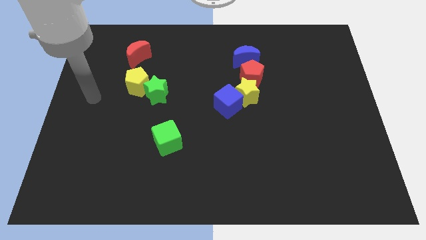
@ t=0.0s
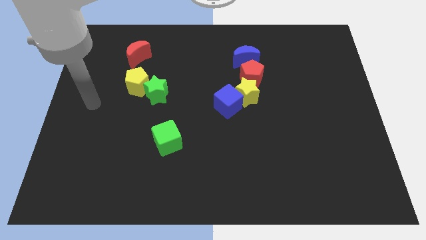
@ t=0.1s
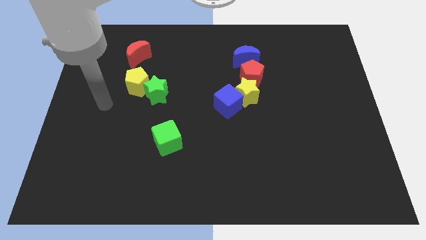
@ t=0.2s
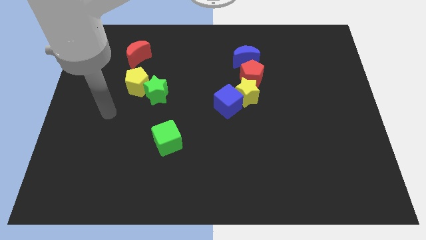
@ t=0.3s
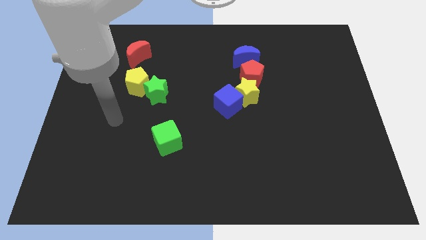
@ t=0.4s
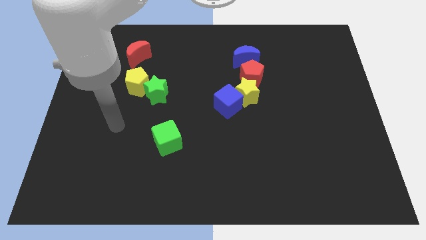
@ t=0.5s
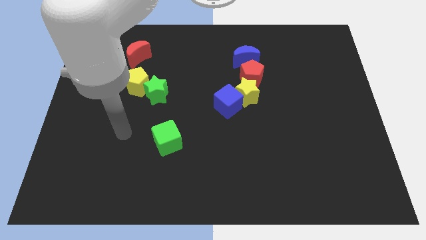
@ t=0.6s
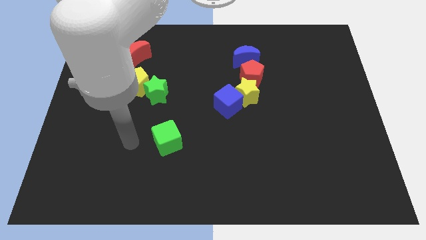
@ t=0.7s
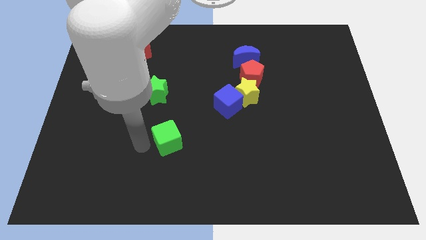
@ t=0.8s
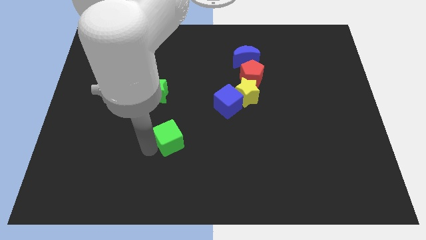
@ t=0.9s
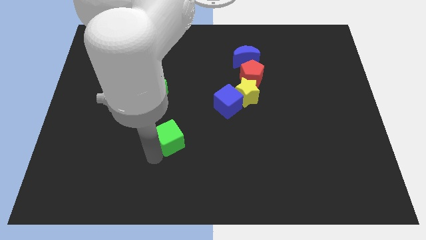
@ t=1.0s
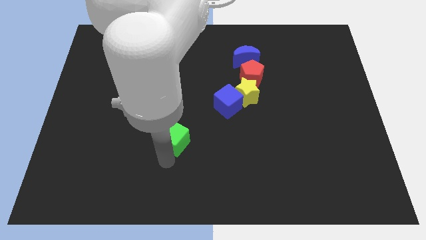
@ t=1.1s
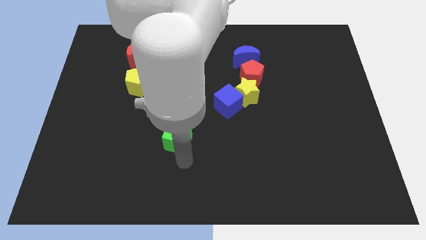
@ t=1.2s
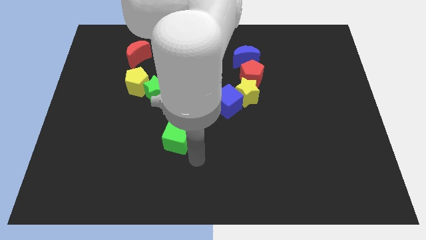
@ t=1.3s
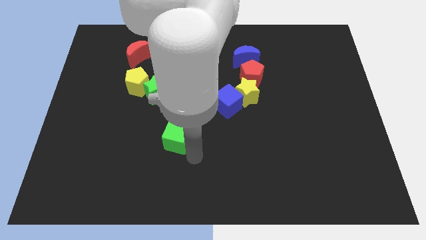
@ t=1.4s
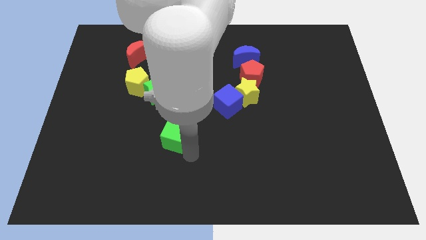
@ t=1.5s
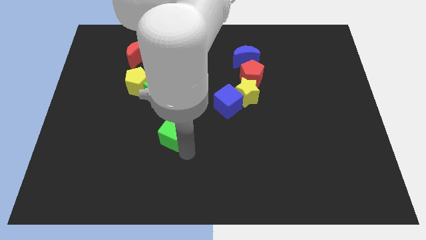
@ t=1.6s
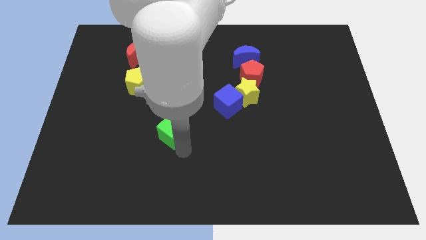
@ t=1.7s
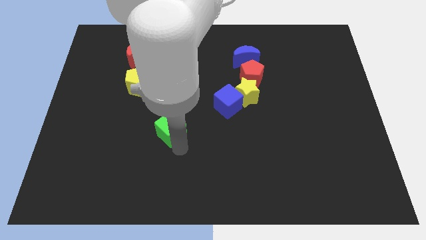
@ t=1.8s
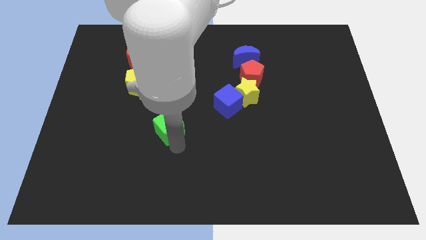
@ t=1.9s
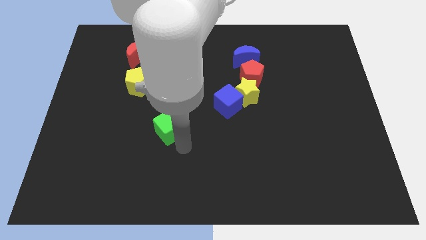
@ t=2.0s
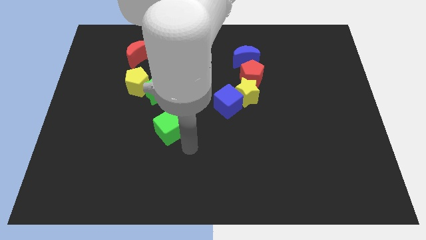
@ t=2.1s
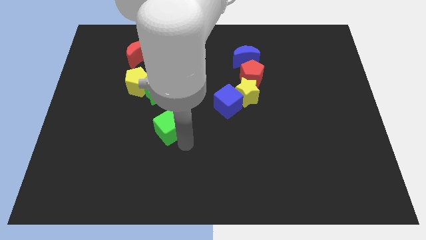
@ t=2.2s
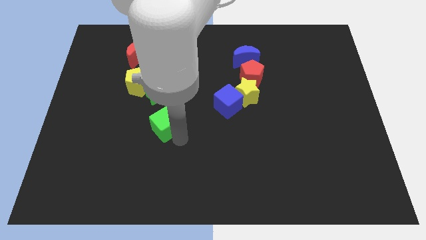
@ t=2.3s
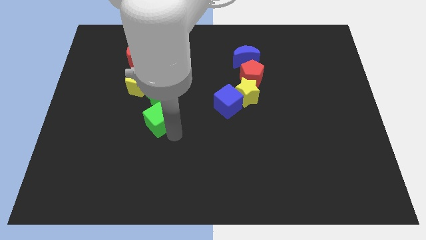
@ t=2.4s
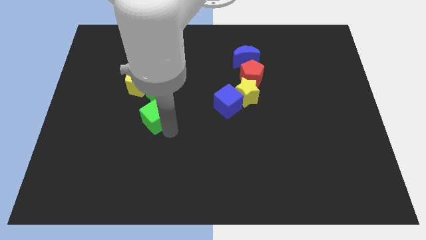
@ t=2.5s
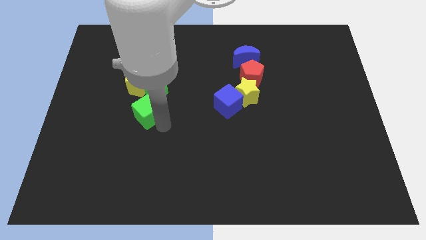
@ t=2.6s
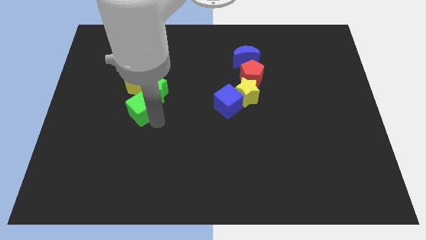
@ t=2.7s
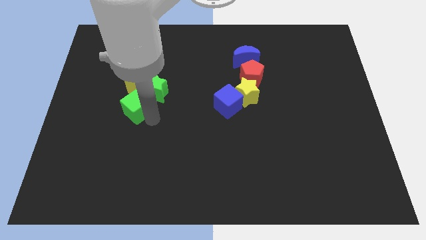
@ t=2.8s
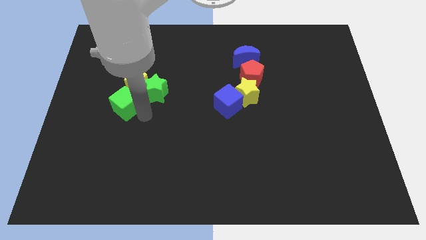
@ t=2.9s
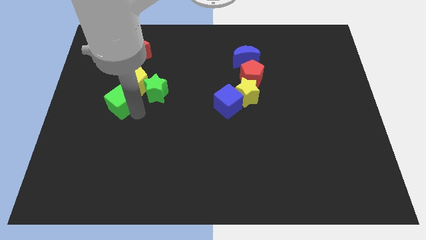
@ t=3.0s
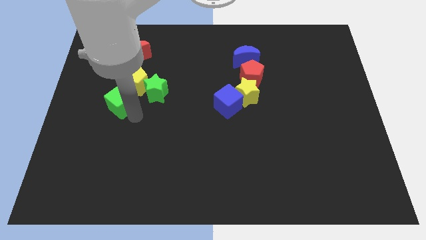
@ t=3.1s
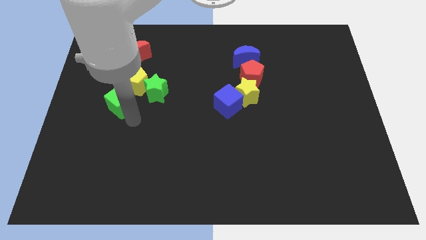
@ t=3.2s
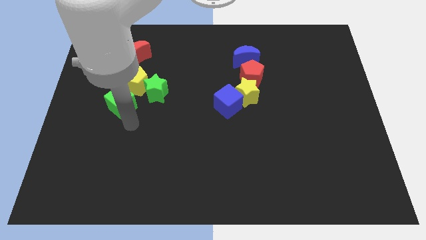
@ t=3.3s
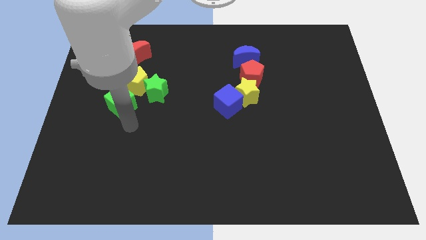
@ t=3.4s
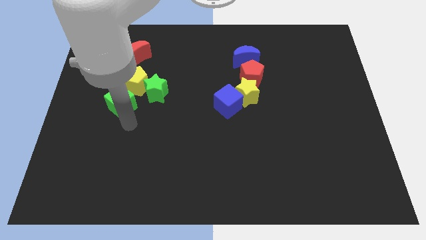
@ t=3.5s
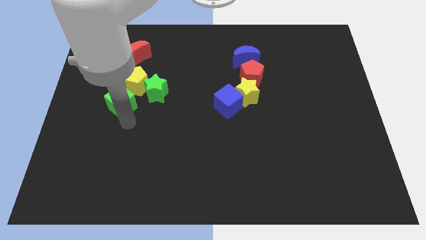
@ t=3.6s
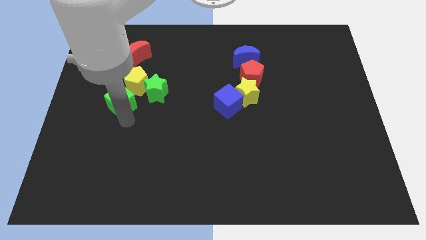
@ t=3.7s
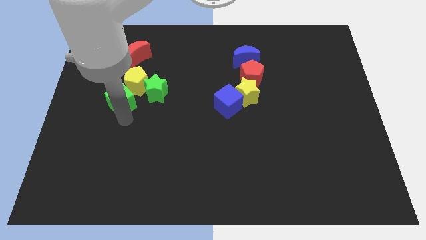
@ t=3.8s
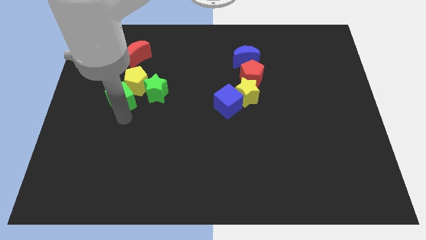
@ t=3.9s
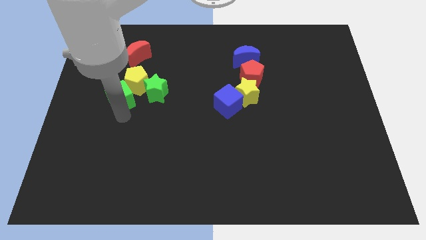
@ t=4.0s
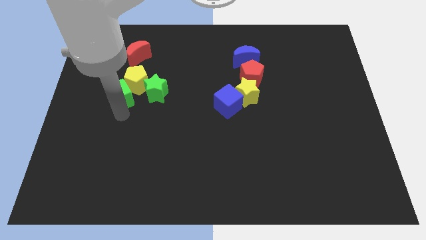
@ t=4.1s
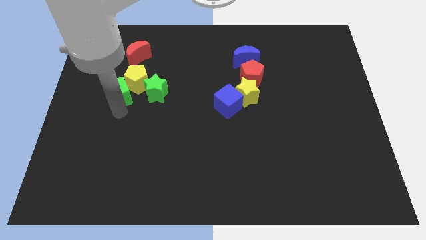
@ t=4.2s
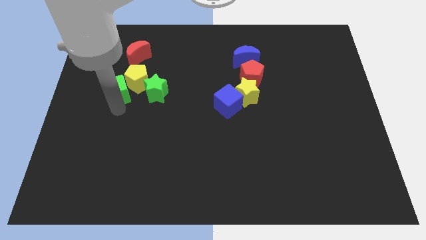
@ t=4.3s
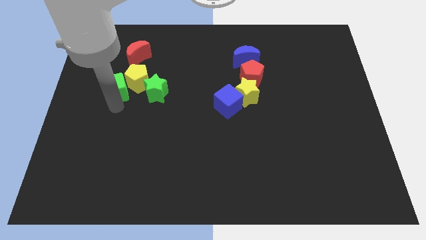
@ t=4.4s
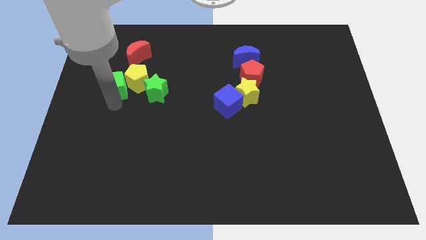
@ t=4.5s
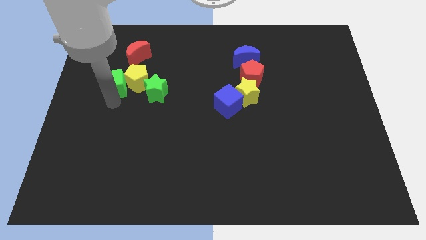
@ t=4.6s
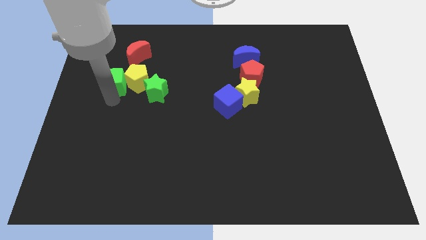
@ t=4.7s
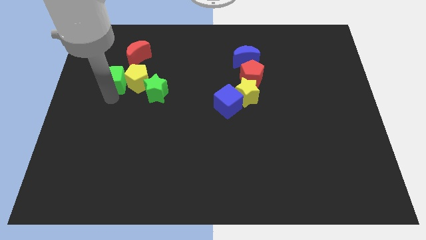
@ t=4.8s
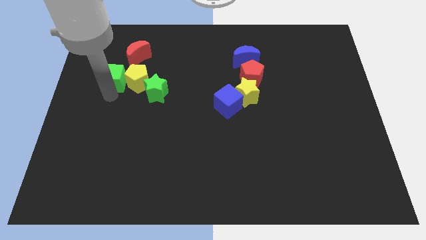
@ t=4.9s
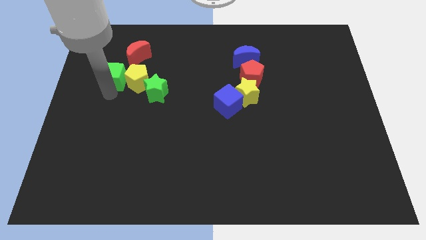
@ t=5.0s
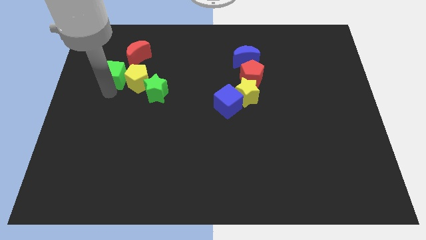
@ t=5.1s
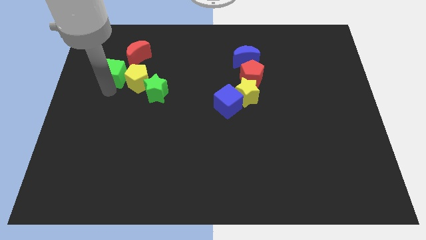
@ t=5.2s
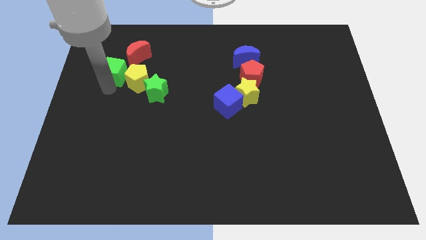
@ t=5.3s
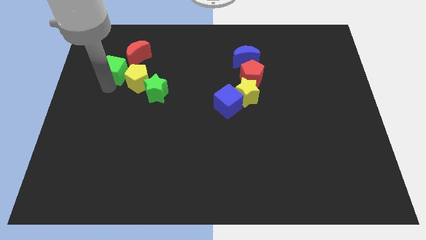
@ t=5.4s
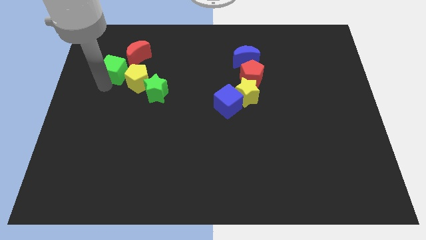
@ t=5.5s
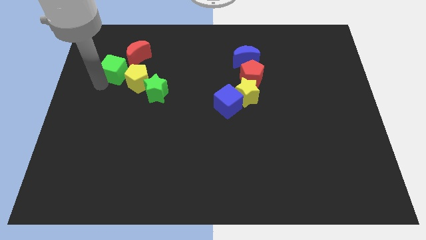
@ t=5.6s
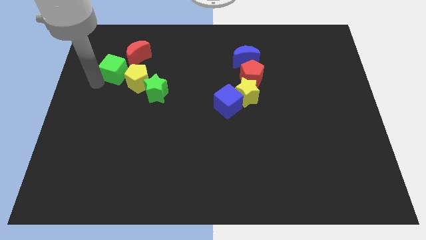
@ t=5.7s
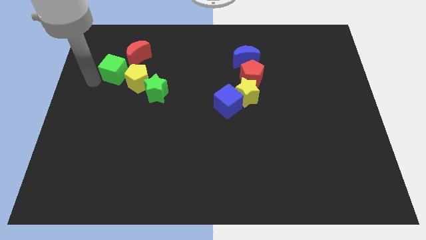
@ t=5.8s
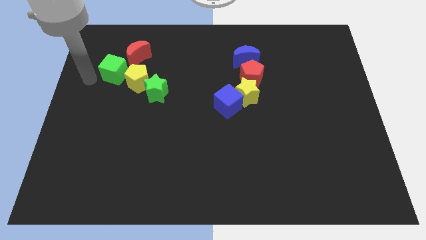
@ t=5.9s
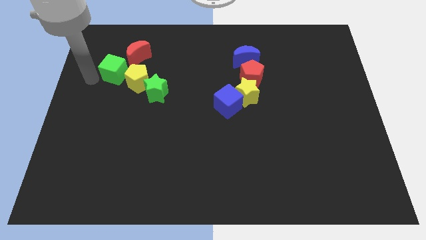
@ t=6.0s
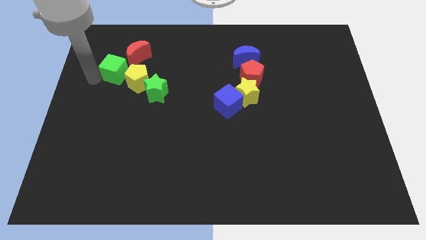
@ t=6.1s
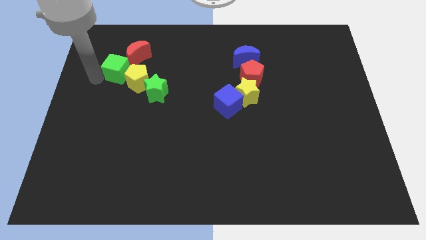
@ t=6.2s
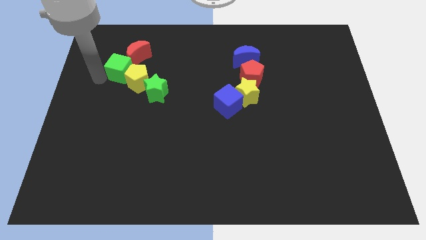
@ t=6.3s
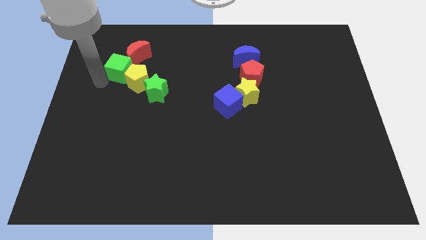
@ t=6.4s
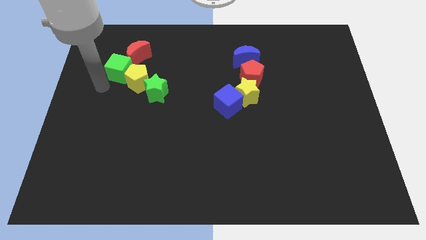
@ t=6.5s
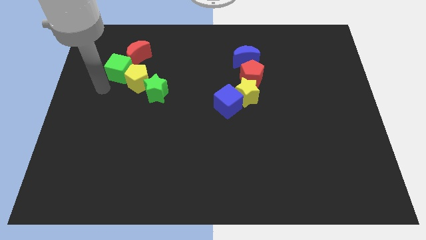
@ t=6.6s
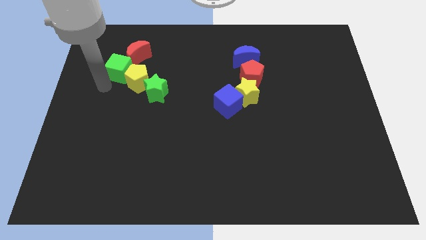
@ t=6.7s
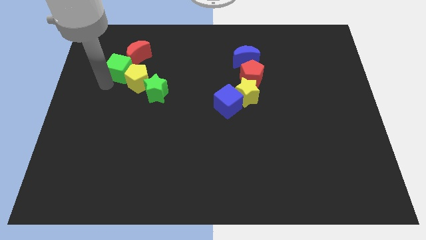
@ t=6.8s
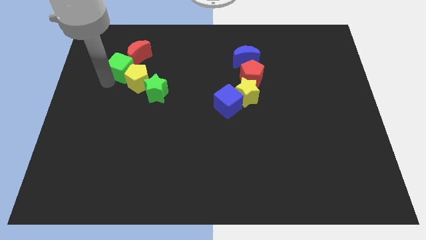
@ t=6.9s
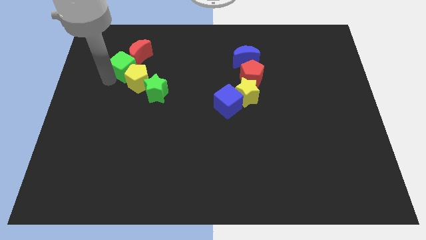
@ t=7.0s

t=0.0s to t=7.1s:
move the green cube next to the red moon
